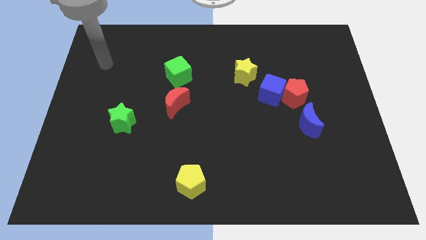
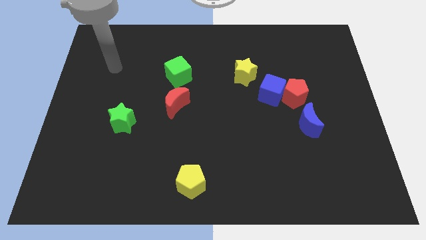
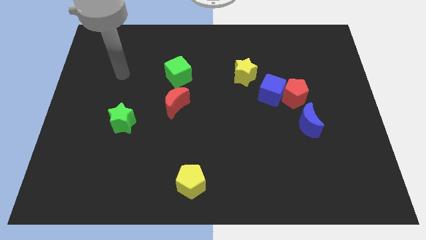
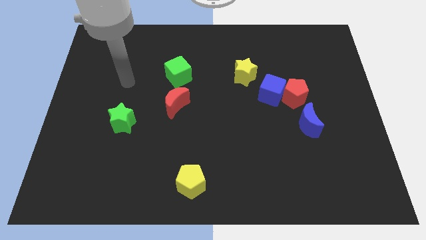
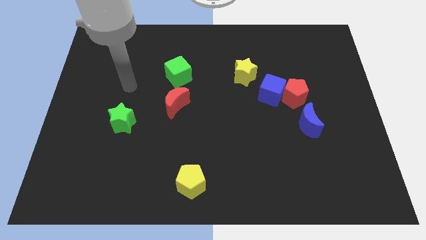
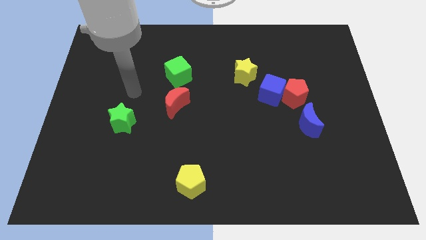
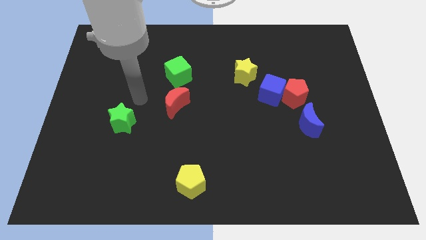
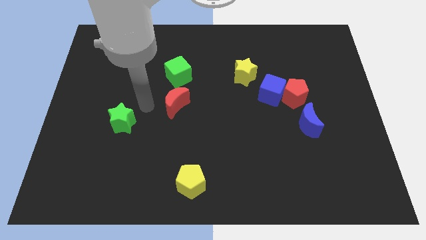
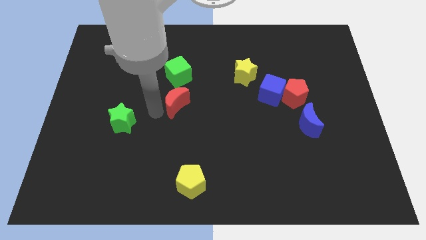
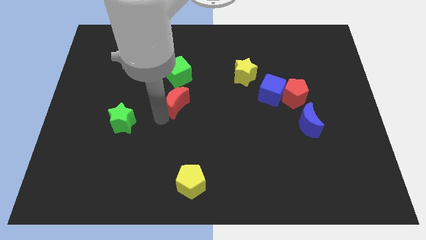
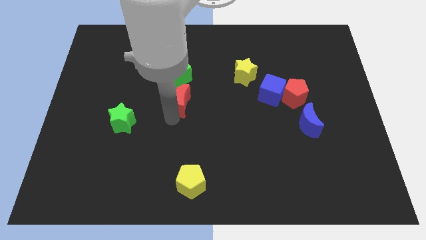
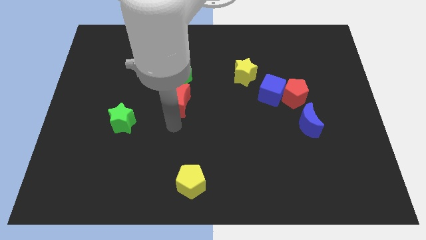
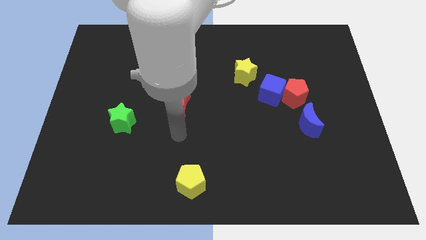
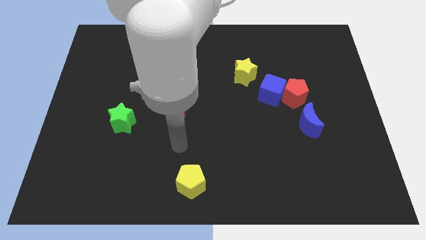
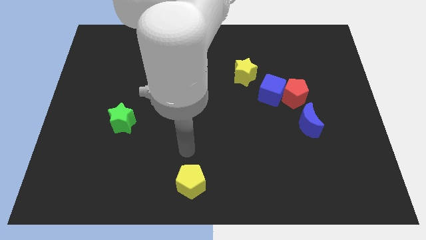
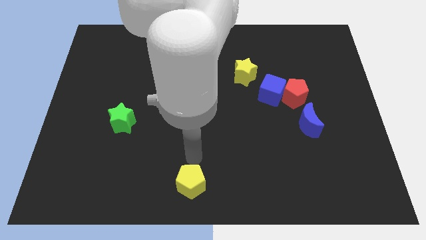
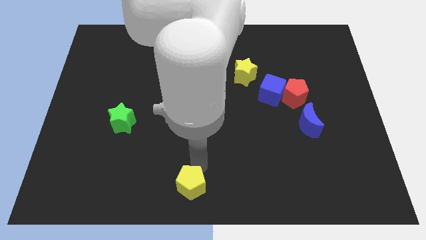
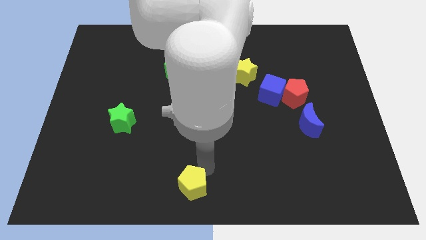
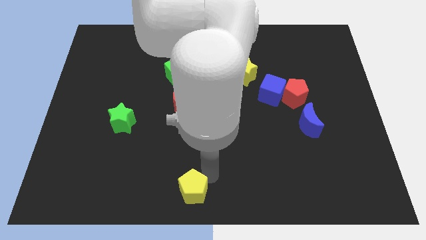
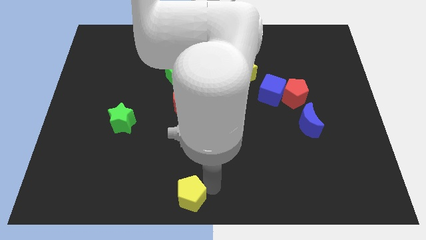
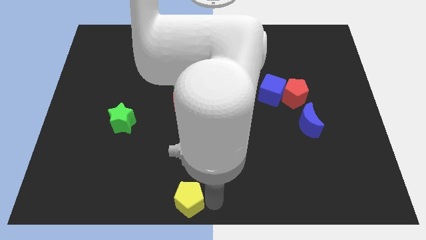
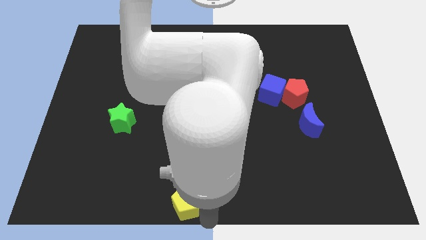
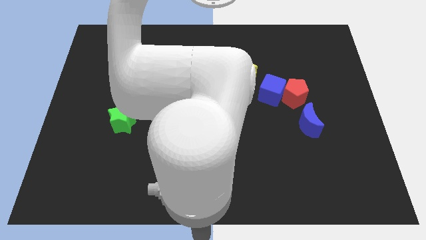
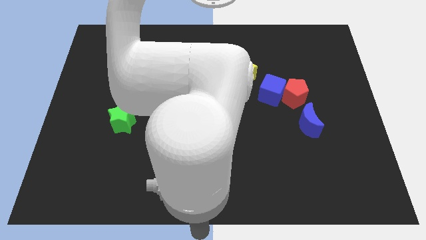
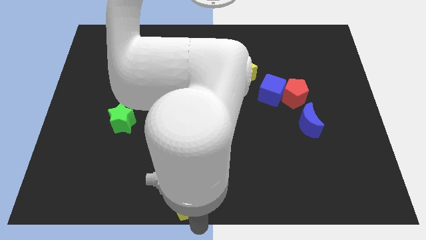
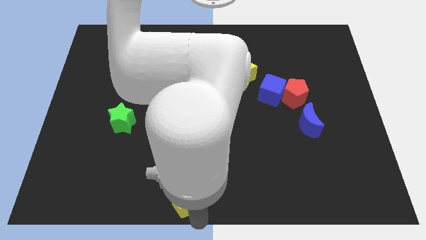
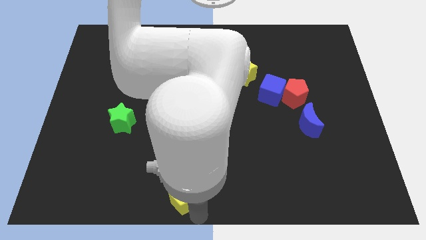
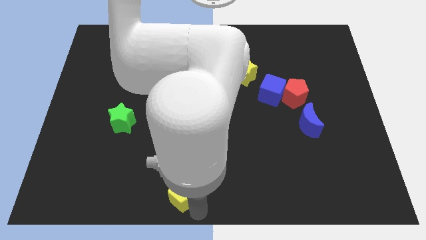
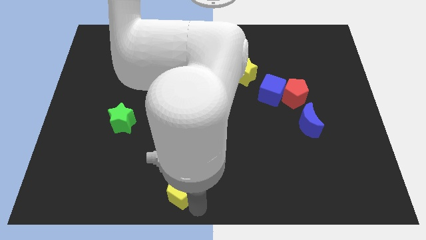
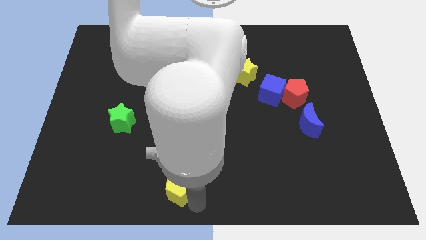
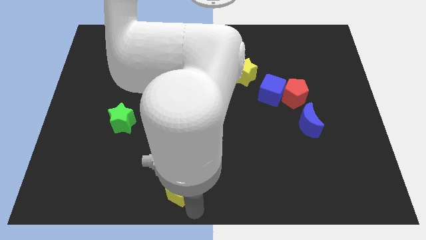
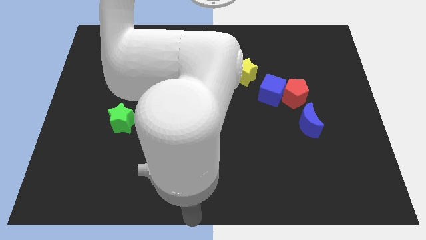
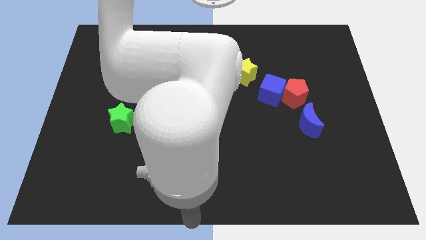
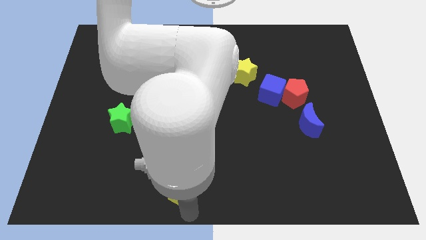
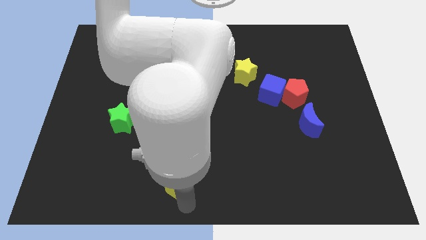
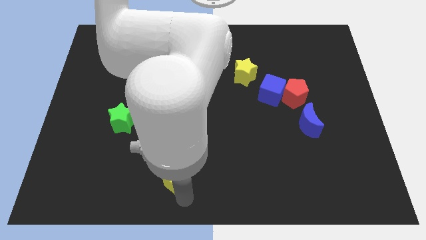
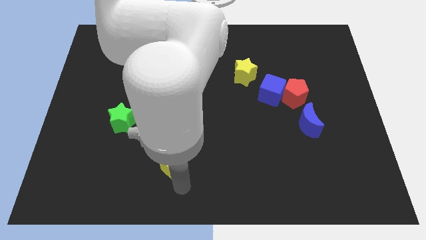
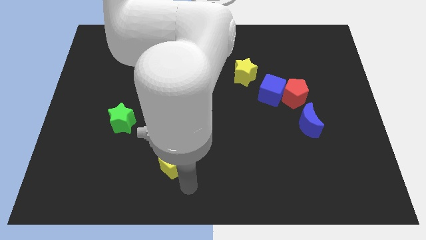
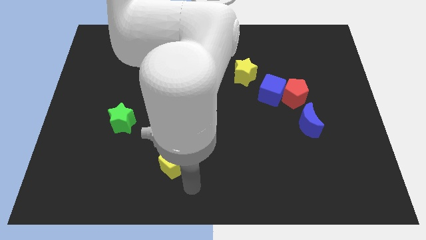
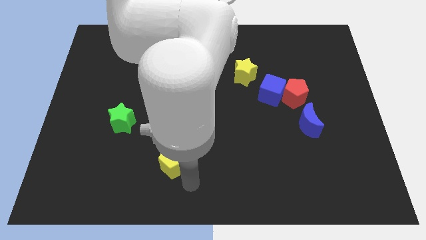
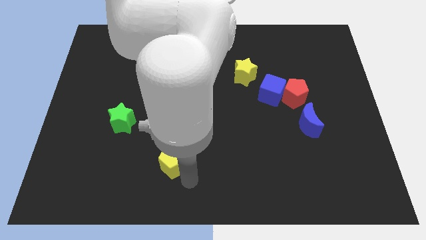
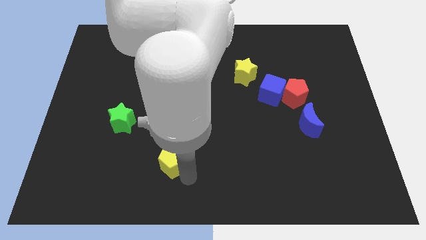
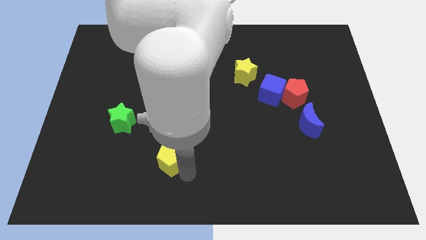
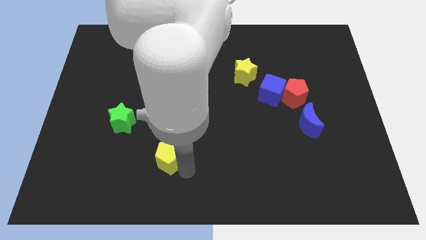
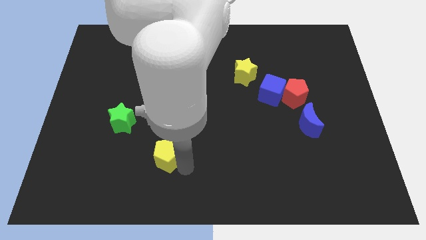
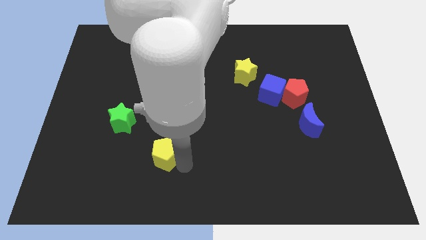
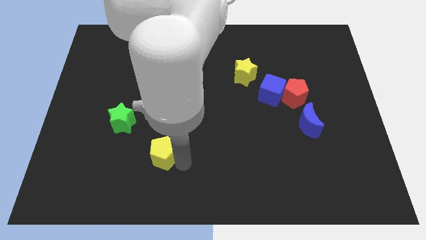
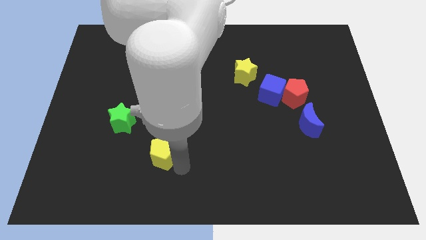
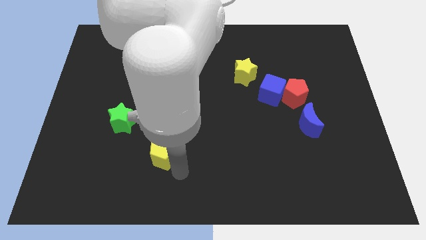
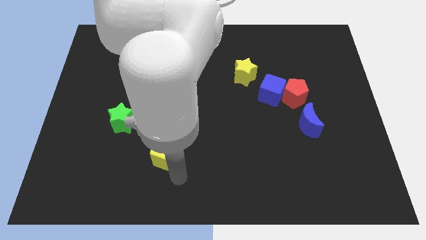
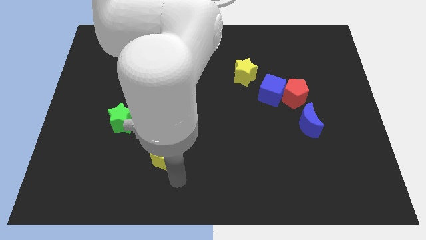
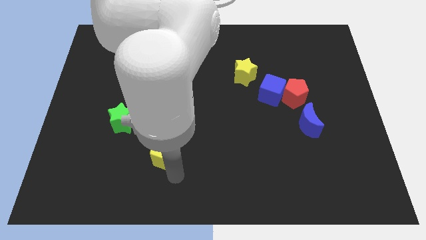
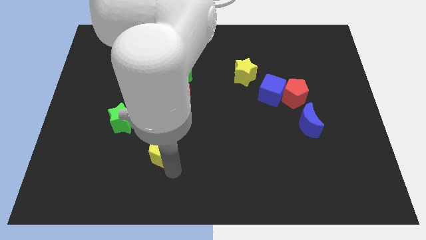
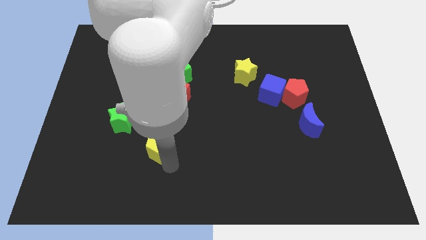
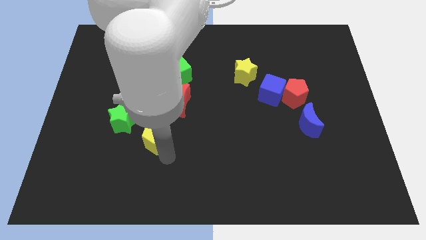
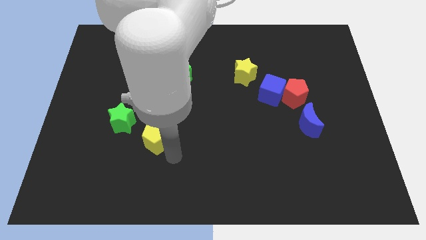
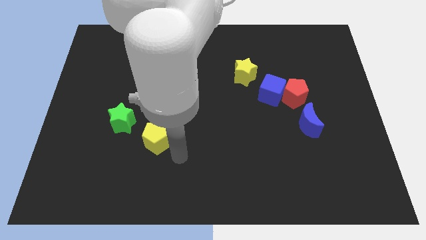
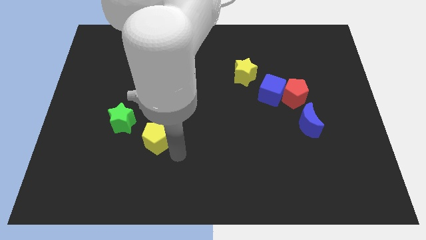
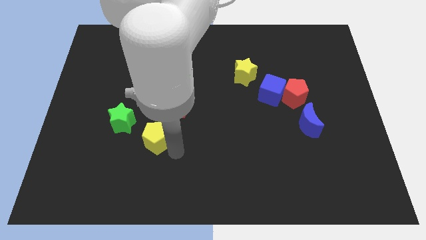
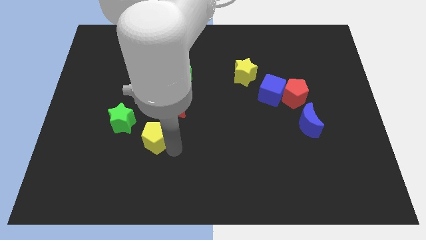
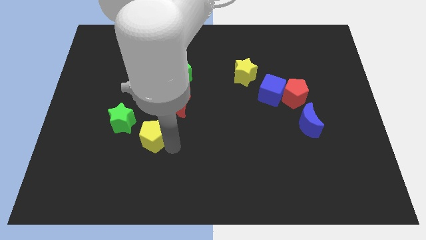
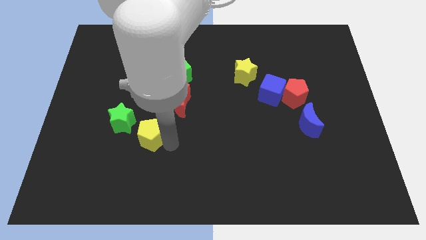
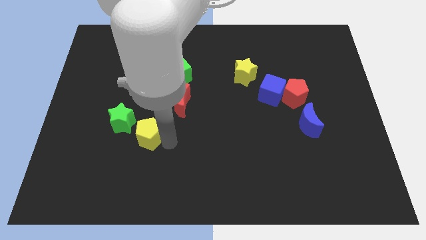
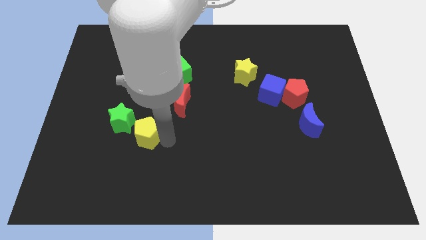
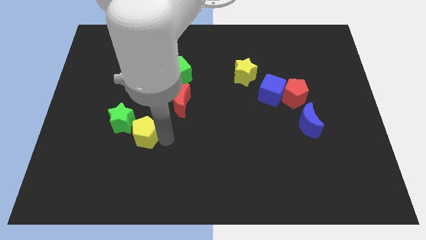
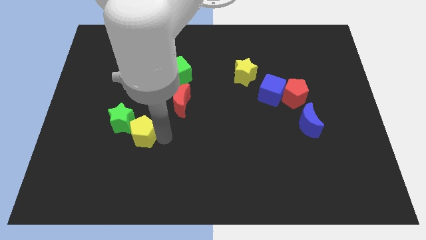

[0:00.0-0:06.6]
put the yellow pentagon towards the green star
